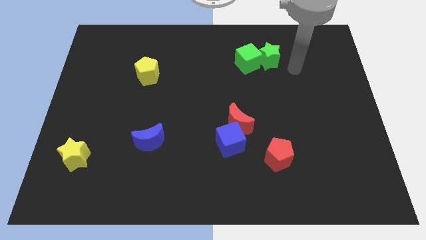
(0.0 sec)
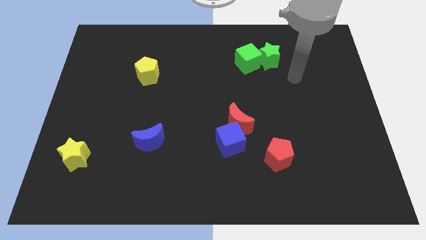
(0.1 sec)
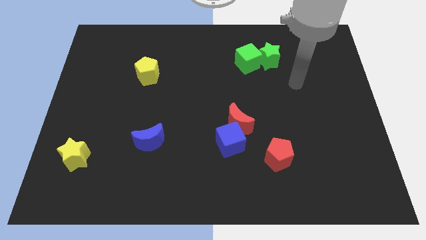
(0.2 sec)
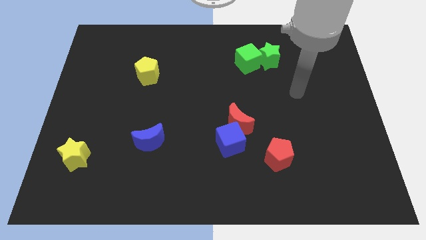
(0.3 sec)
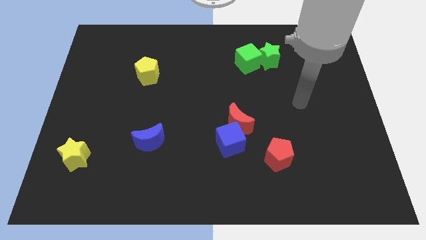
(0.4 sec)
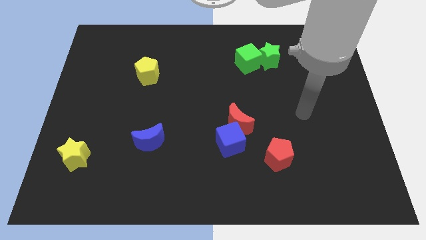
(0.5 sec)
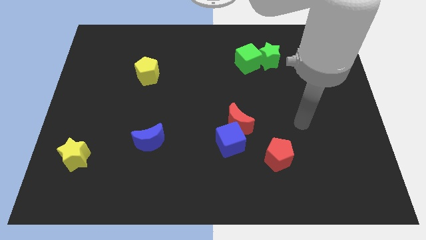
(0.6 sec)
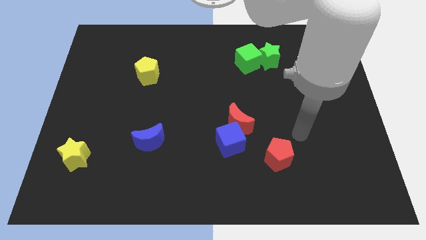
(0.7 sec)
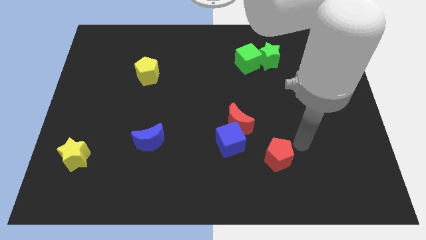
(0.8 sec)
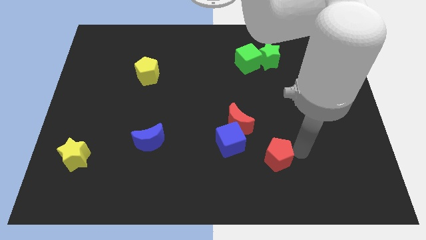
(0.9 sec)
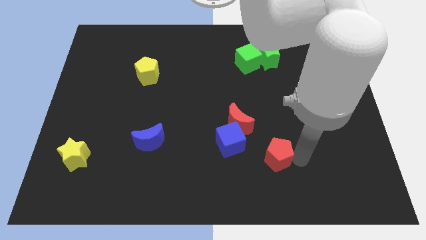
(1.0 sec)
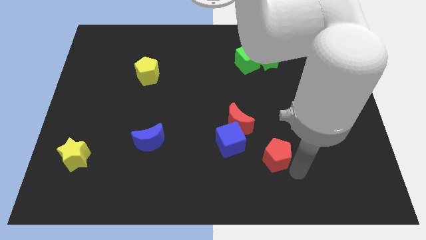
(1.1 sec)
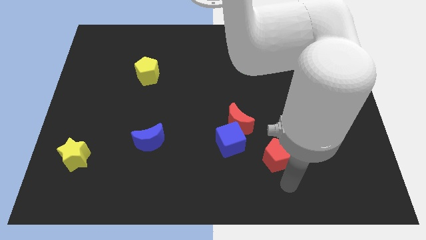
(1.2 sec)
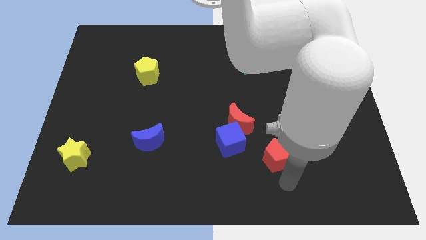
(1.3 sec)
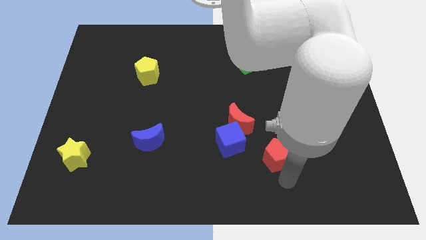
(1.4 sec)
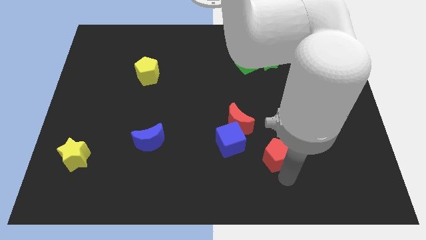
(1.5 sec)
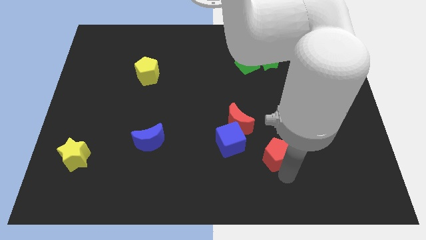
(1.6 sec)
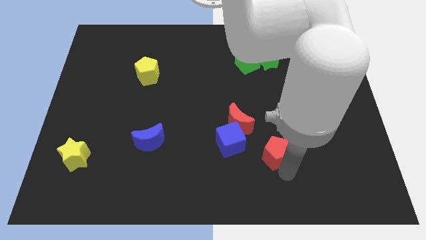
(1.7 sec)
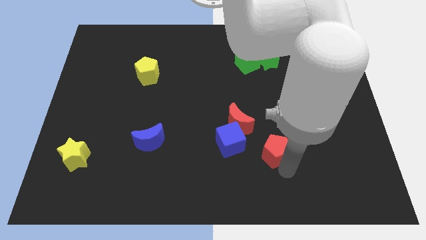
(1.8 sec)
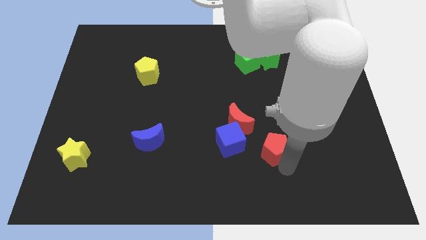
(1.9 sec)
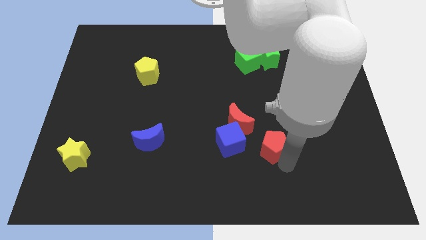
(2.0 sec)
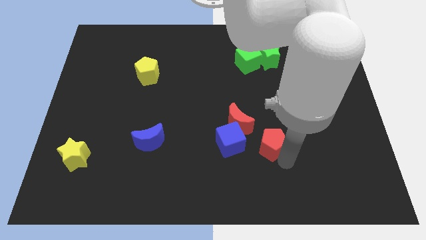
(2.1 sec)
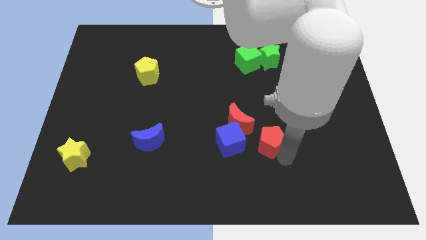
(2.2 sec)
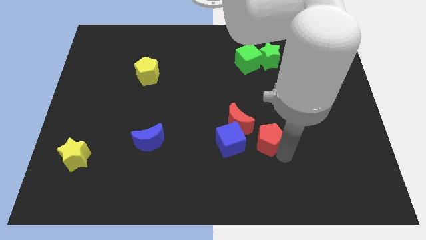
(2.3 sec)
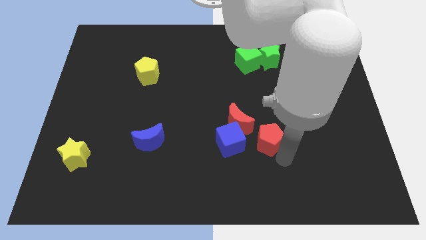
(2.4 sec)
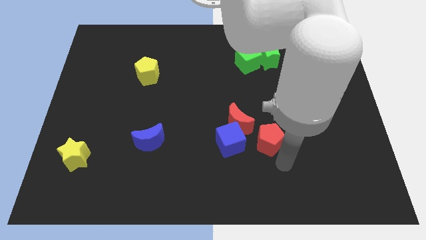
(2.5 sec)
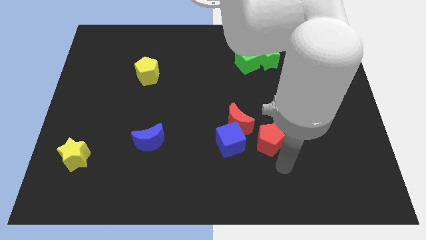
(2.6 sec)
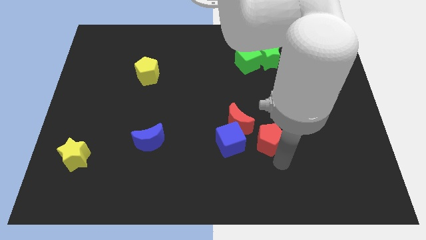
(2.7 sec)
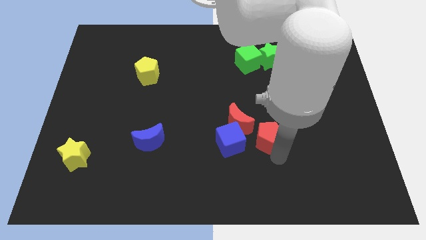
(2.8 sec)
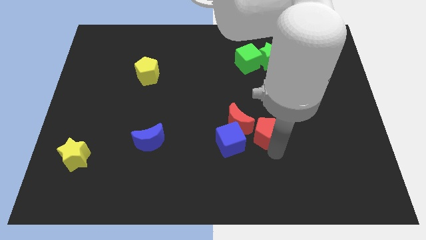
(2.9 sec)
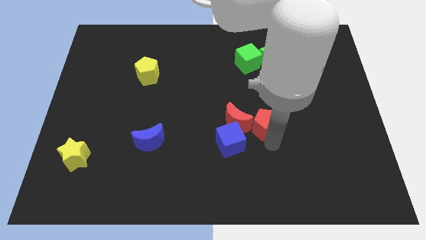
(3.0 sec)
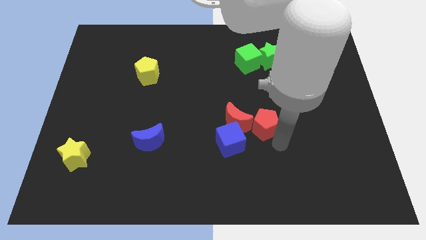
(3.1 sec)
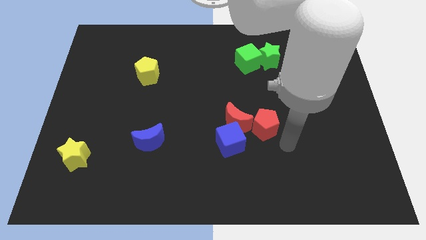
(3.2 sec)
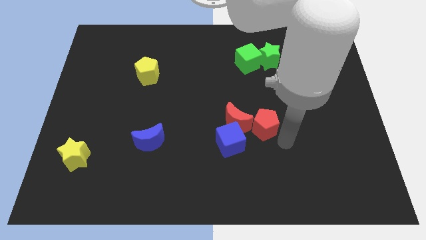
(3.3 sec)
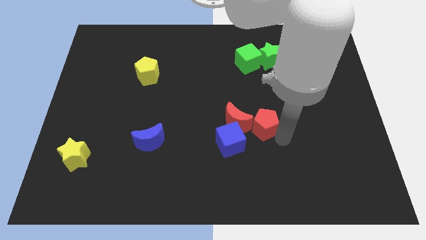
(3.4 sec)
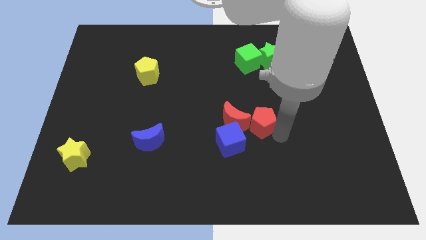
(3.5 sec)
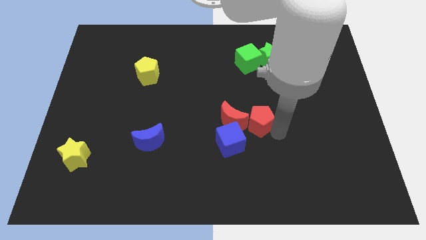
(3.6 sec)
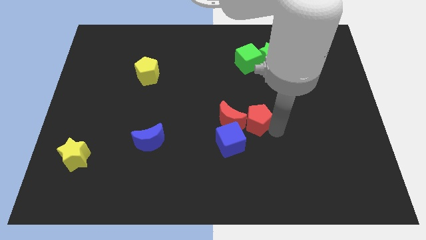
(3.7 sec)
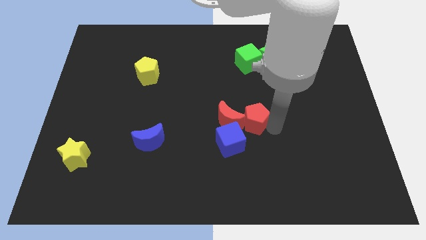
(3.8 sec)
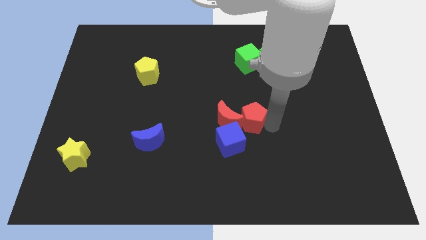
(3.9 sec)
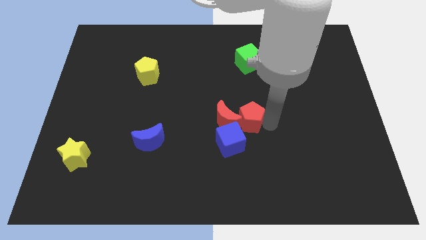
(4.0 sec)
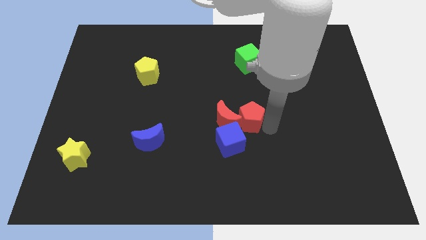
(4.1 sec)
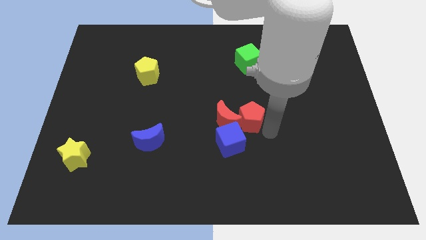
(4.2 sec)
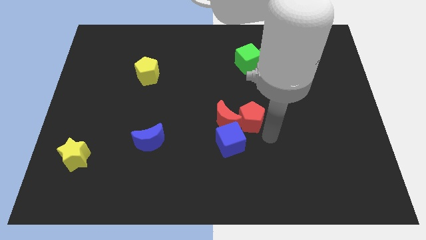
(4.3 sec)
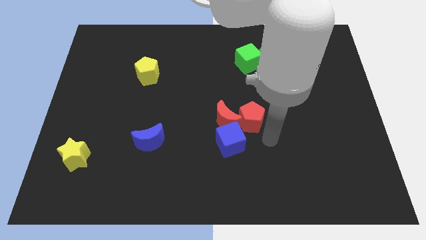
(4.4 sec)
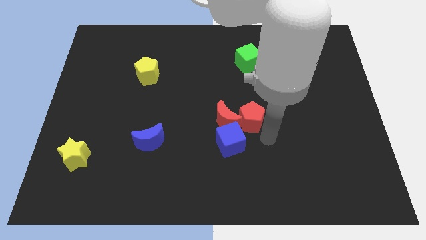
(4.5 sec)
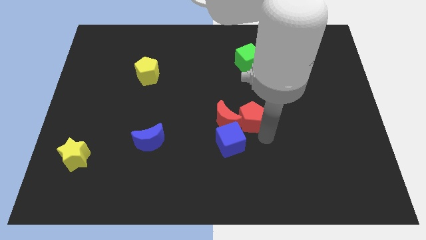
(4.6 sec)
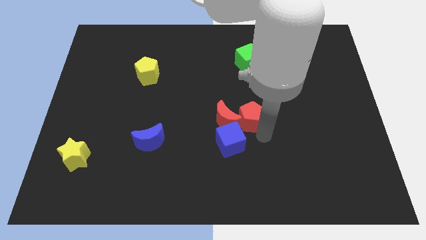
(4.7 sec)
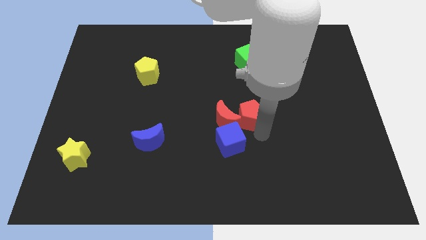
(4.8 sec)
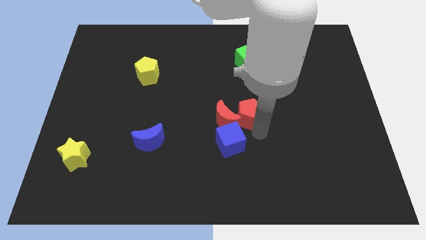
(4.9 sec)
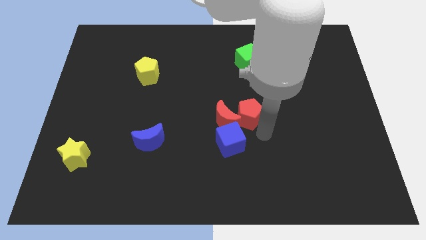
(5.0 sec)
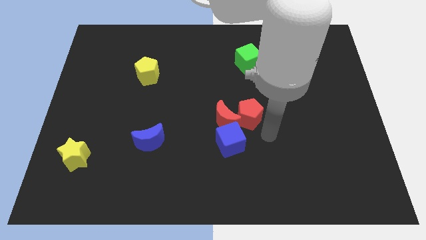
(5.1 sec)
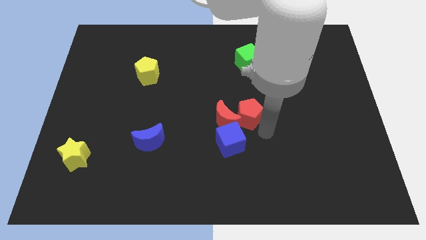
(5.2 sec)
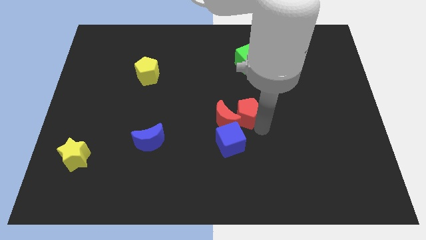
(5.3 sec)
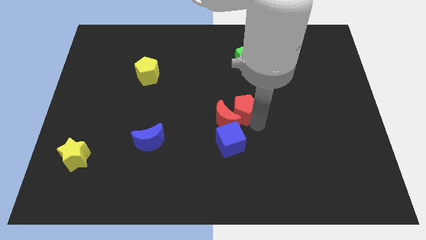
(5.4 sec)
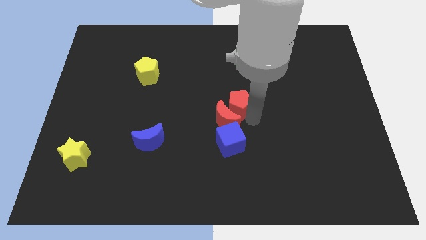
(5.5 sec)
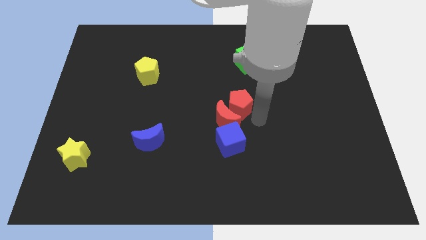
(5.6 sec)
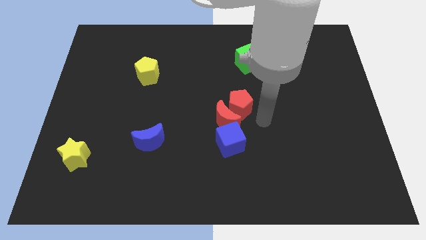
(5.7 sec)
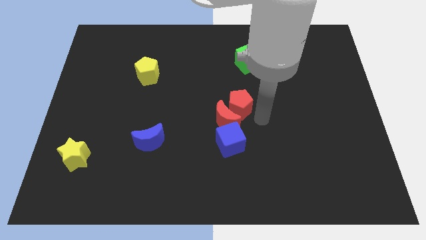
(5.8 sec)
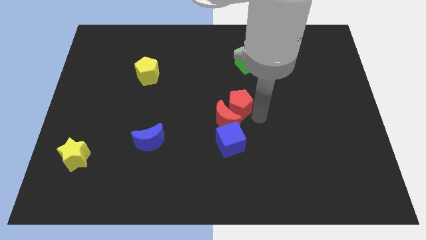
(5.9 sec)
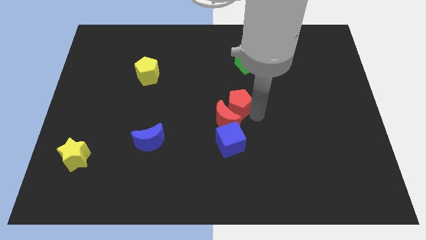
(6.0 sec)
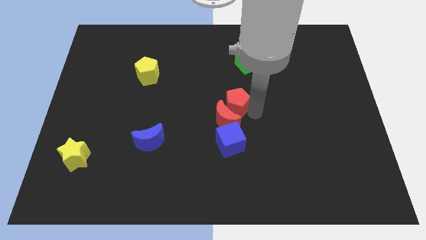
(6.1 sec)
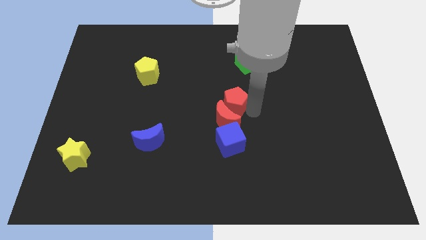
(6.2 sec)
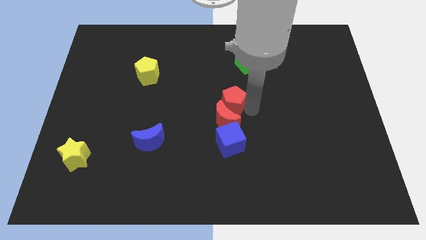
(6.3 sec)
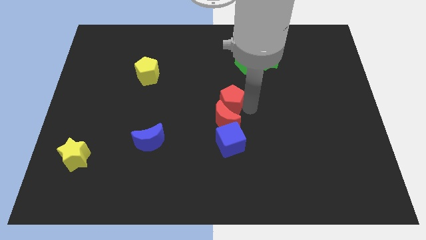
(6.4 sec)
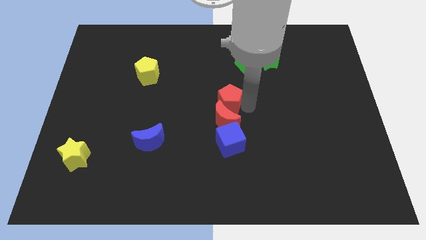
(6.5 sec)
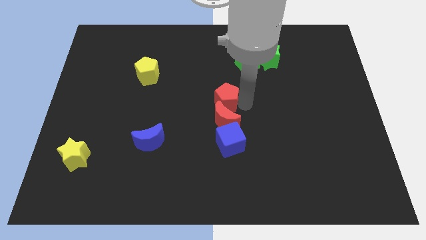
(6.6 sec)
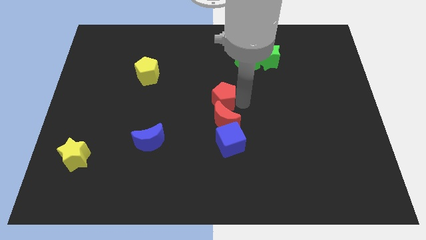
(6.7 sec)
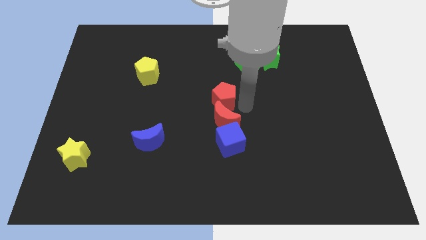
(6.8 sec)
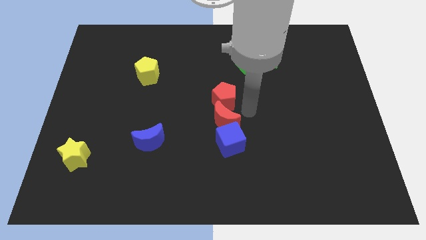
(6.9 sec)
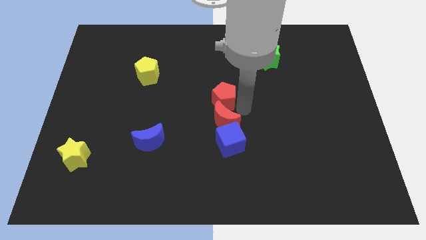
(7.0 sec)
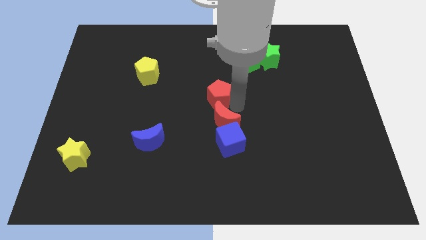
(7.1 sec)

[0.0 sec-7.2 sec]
push the red pentagon diagonally up and to the left

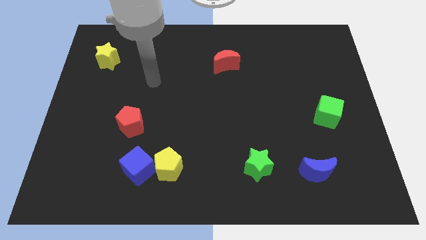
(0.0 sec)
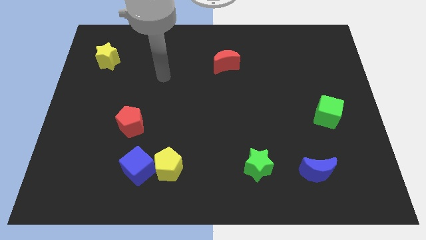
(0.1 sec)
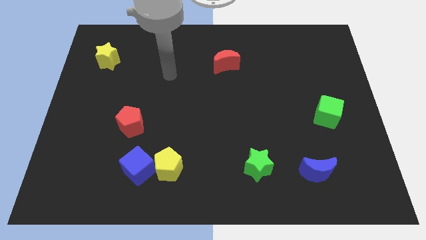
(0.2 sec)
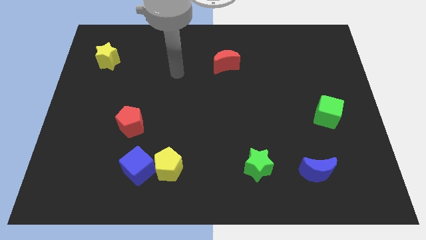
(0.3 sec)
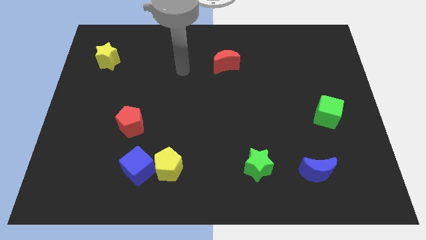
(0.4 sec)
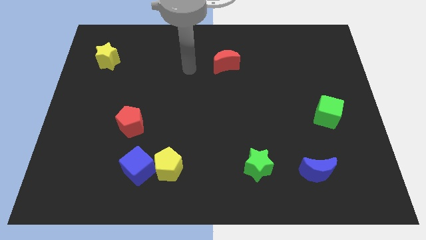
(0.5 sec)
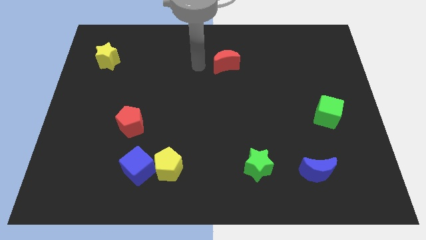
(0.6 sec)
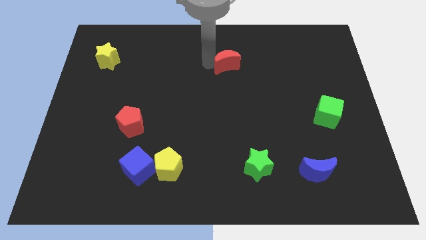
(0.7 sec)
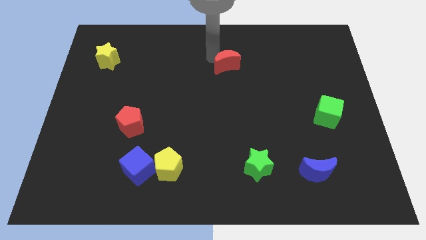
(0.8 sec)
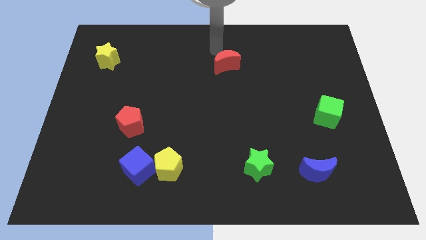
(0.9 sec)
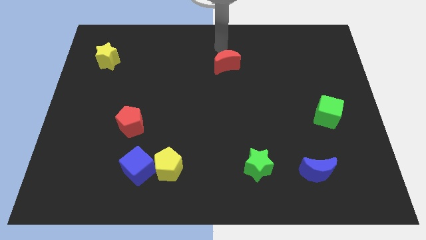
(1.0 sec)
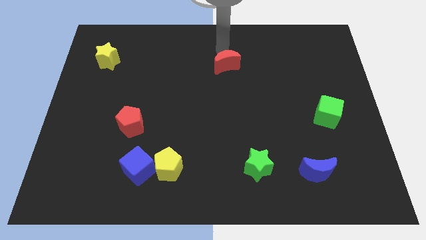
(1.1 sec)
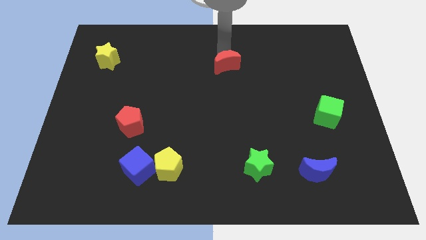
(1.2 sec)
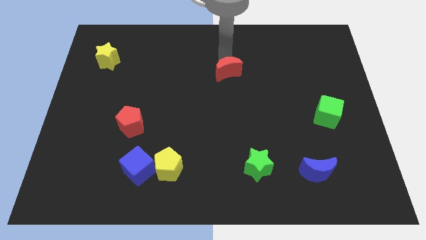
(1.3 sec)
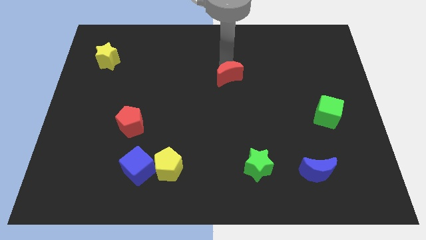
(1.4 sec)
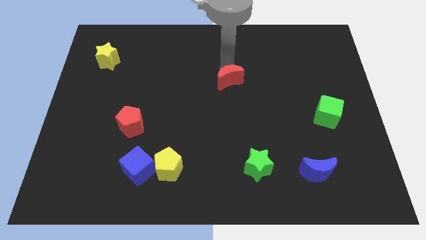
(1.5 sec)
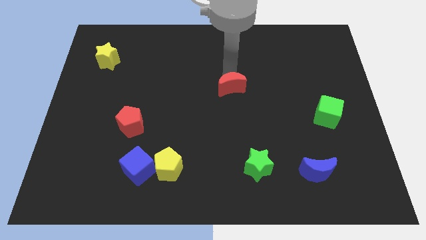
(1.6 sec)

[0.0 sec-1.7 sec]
move the red moon a bit down
